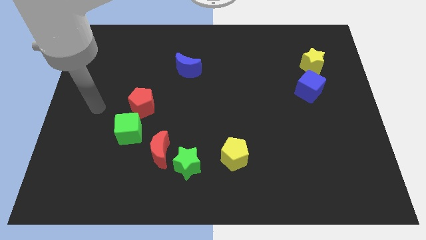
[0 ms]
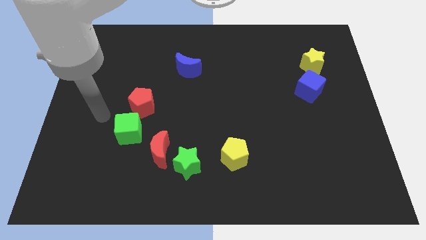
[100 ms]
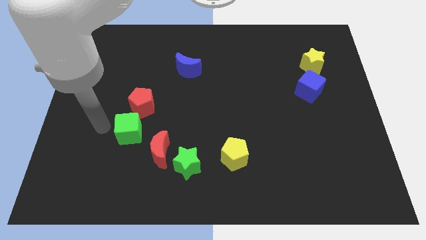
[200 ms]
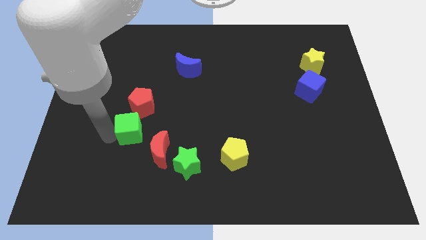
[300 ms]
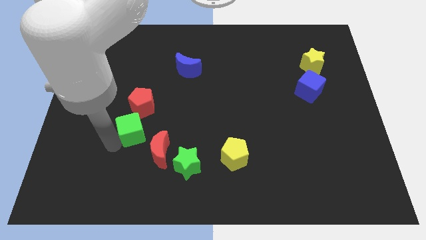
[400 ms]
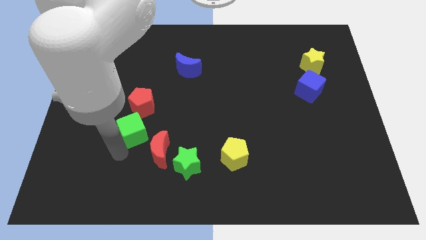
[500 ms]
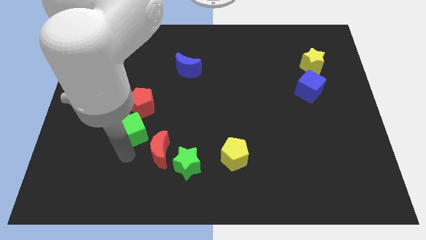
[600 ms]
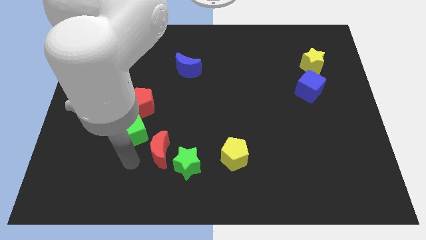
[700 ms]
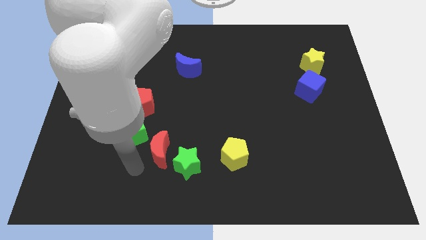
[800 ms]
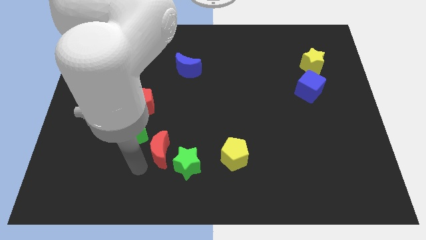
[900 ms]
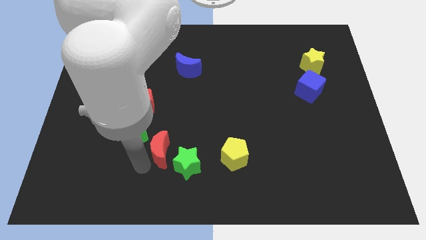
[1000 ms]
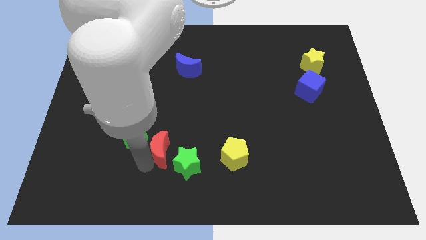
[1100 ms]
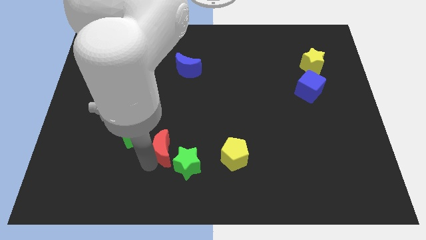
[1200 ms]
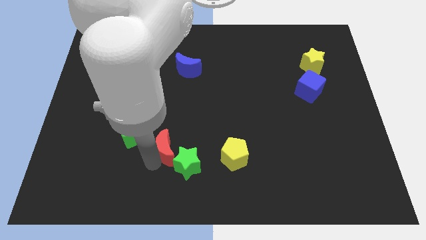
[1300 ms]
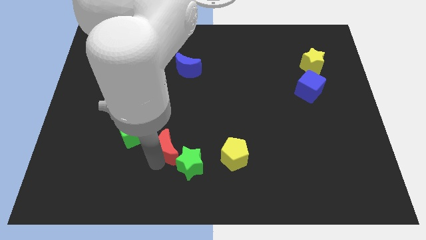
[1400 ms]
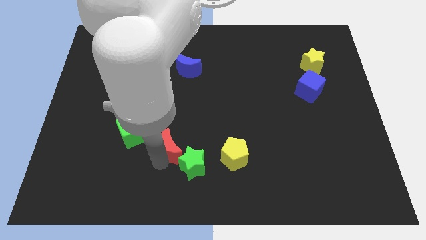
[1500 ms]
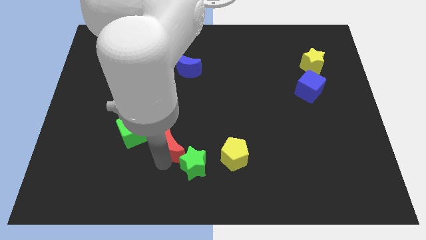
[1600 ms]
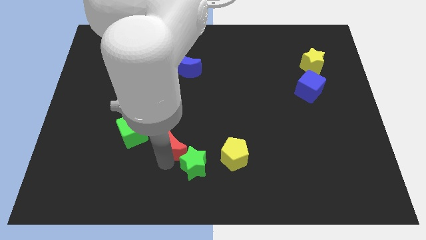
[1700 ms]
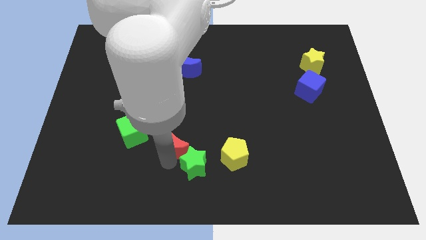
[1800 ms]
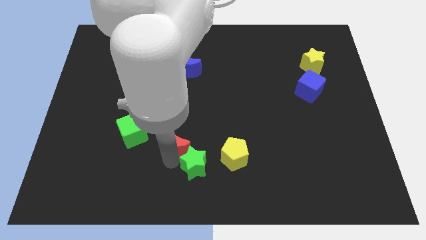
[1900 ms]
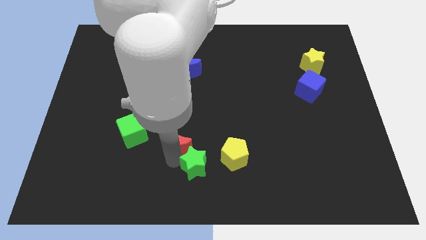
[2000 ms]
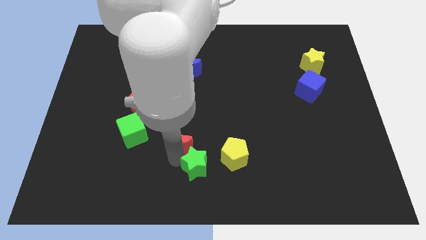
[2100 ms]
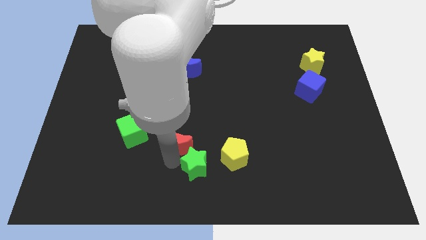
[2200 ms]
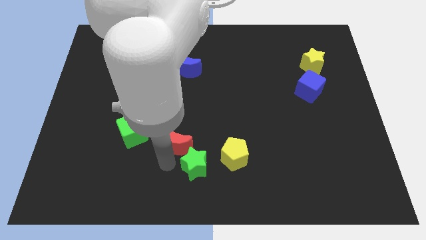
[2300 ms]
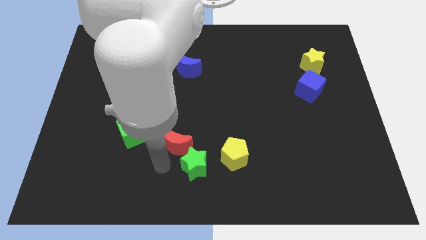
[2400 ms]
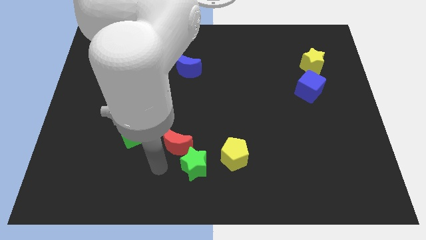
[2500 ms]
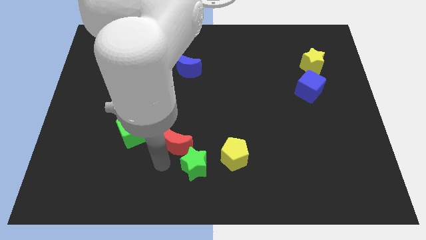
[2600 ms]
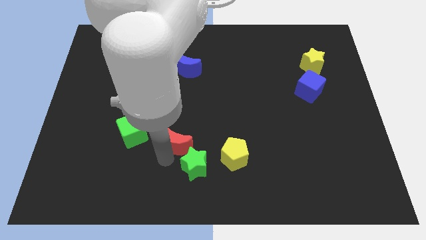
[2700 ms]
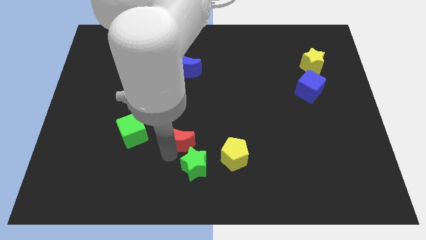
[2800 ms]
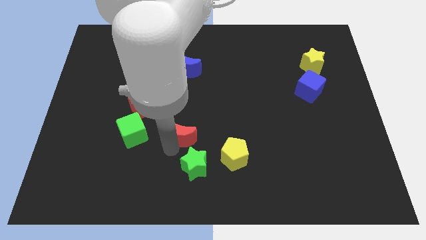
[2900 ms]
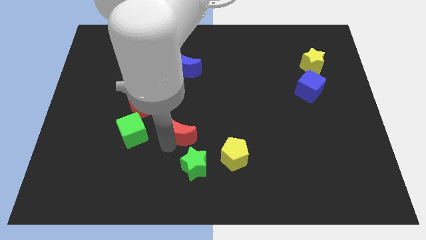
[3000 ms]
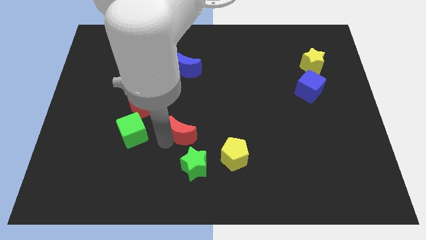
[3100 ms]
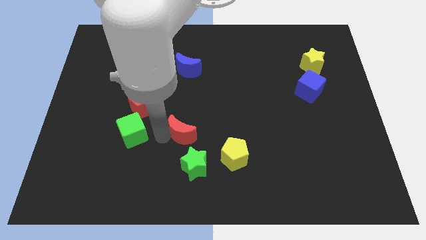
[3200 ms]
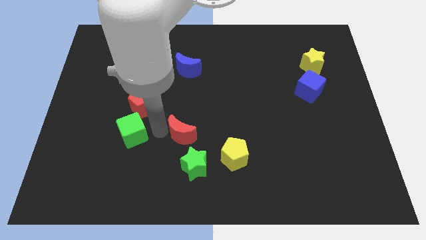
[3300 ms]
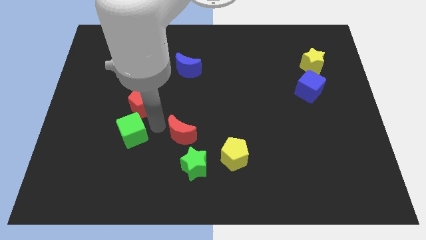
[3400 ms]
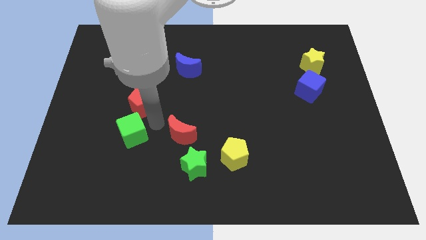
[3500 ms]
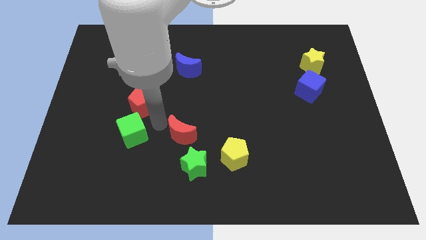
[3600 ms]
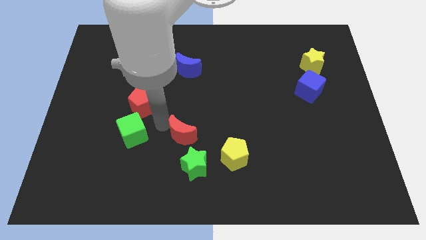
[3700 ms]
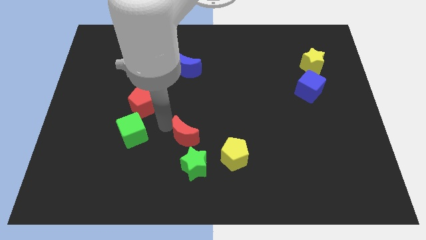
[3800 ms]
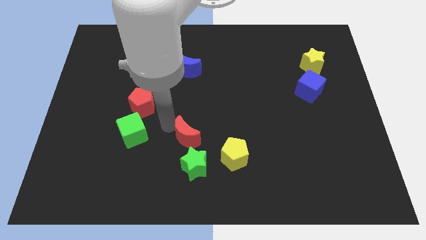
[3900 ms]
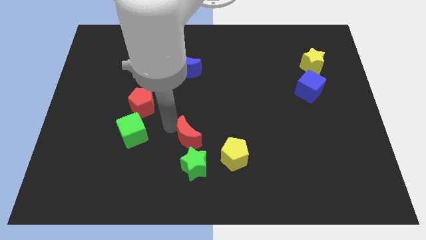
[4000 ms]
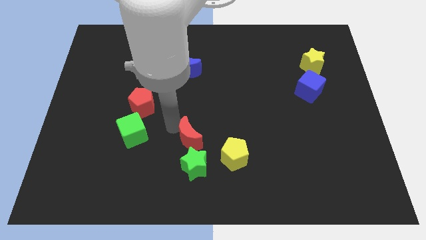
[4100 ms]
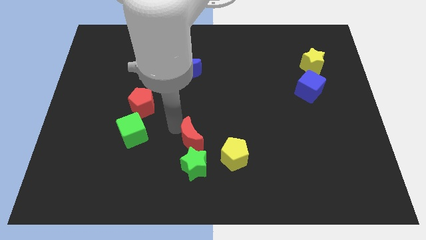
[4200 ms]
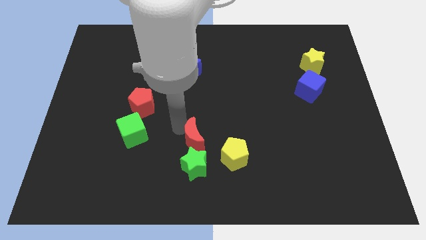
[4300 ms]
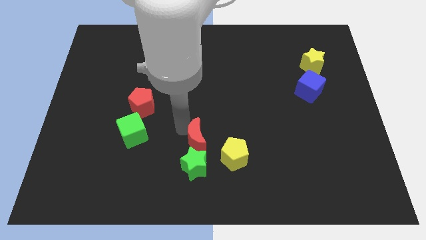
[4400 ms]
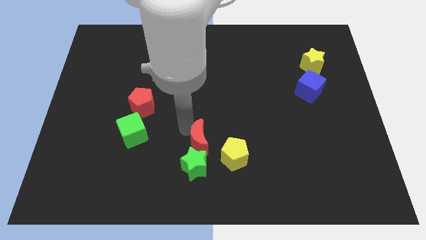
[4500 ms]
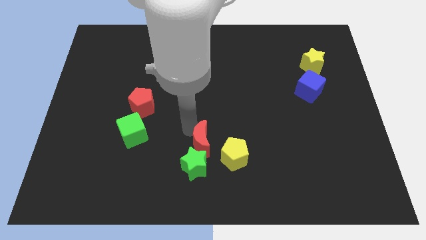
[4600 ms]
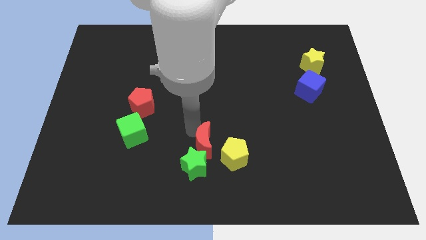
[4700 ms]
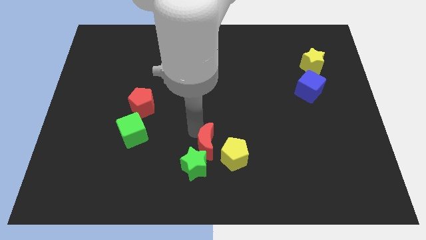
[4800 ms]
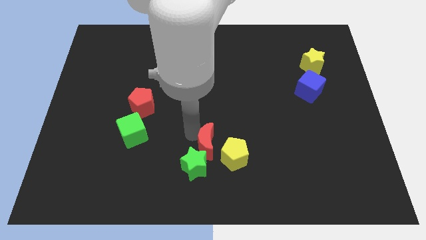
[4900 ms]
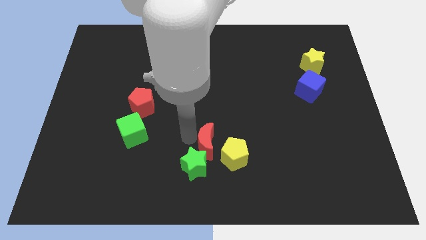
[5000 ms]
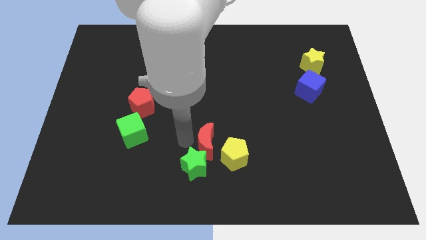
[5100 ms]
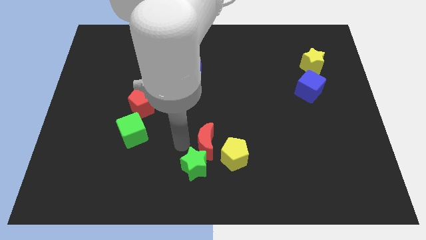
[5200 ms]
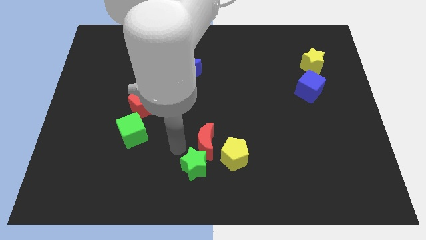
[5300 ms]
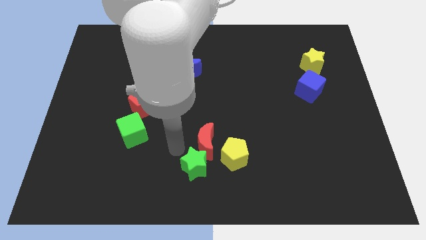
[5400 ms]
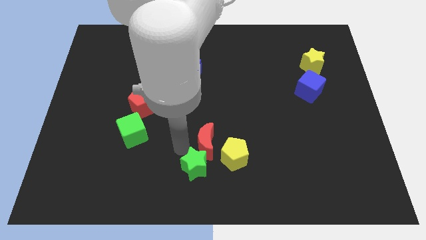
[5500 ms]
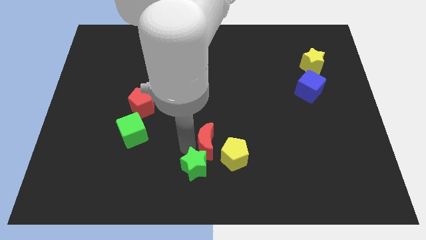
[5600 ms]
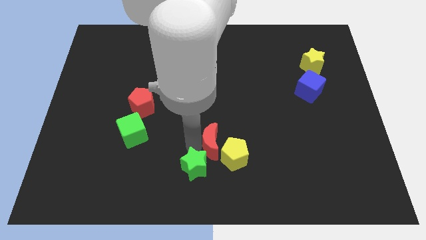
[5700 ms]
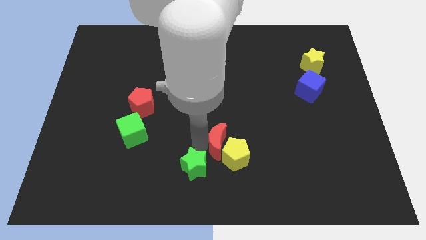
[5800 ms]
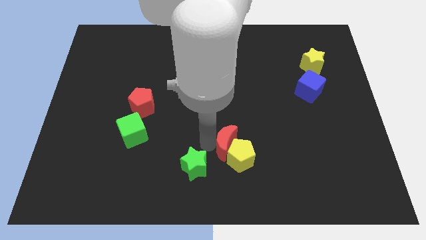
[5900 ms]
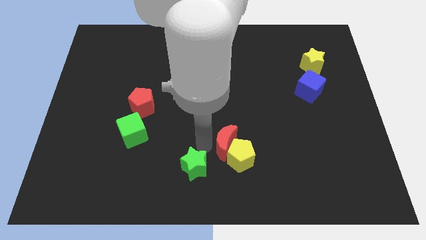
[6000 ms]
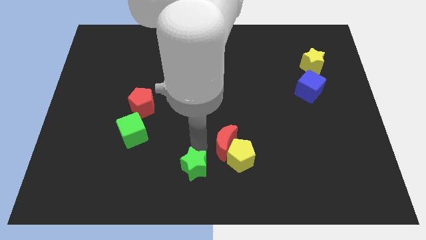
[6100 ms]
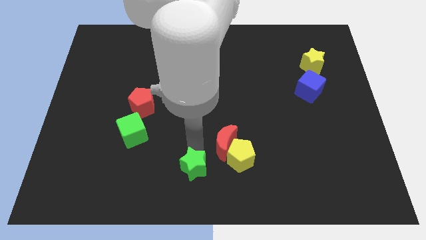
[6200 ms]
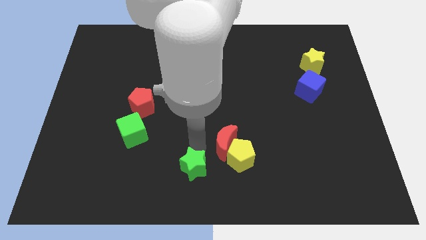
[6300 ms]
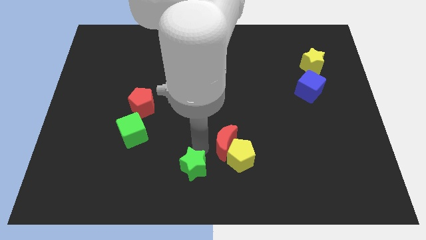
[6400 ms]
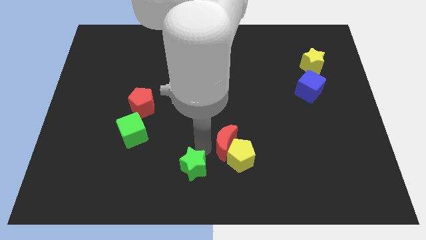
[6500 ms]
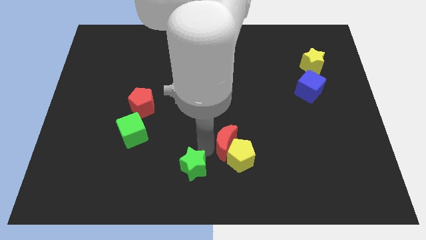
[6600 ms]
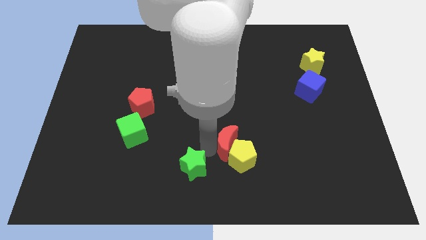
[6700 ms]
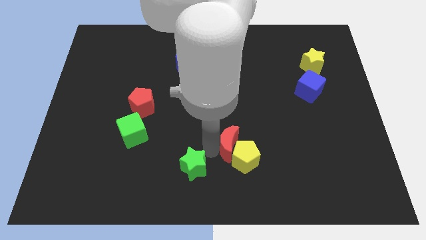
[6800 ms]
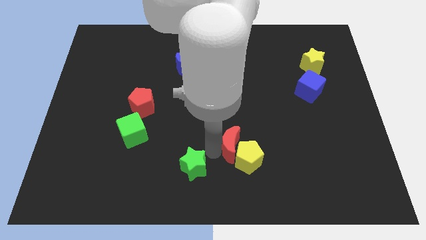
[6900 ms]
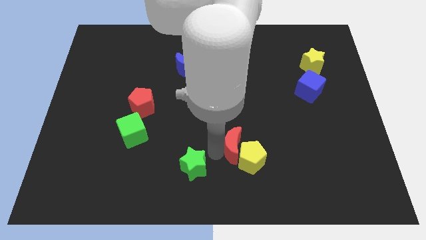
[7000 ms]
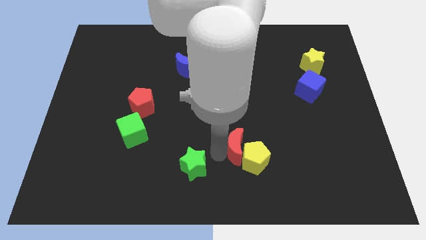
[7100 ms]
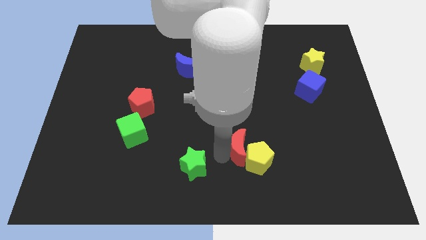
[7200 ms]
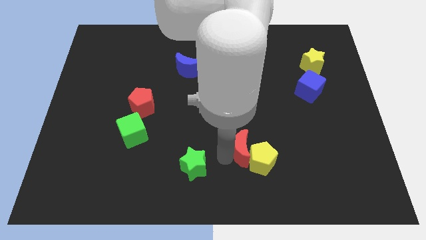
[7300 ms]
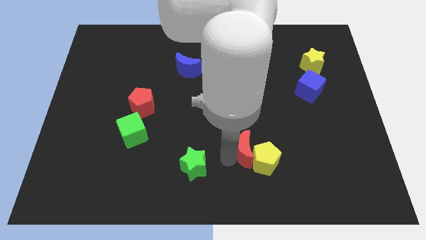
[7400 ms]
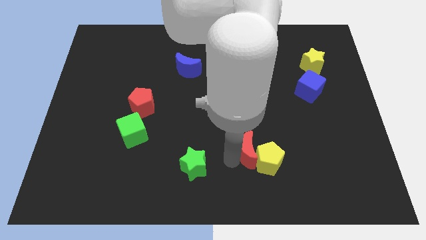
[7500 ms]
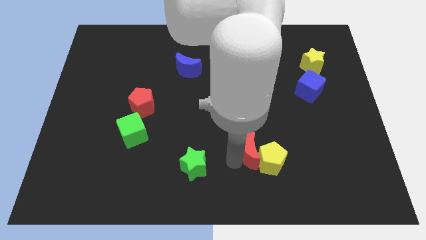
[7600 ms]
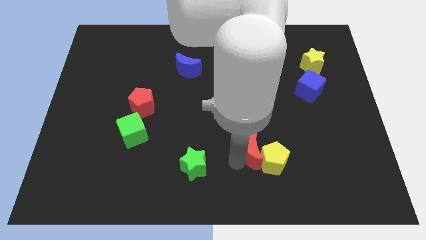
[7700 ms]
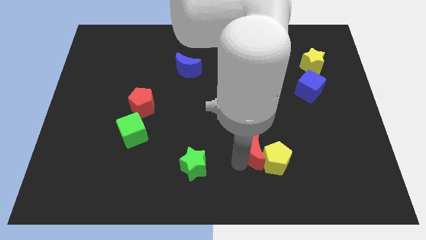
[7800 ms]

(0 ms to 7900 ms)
push the red moon to the right

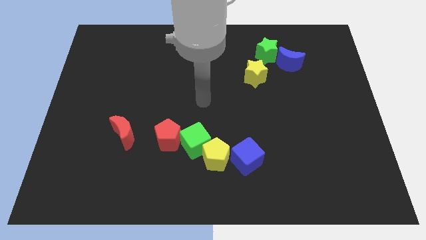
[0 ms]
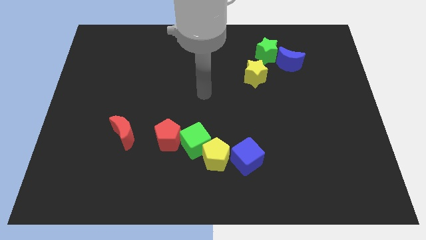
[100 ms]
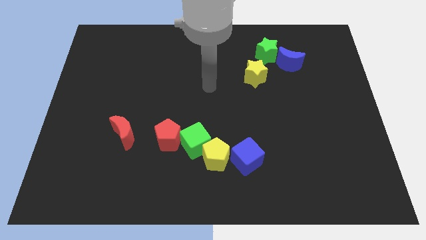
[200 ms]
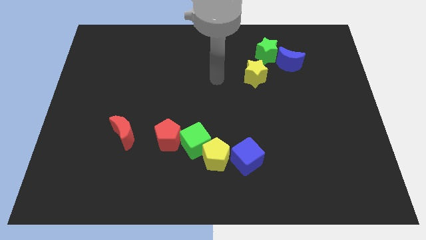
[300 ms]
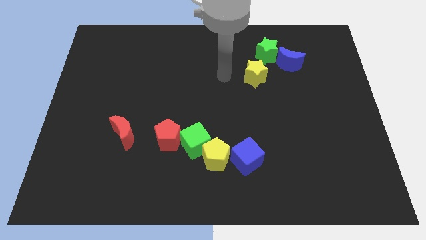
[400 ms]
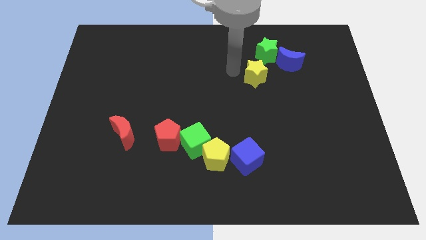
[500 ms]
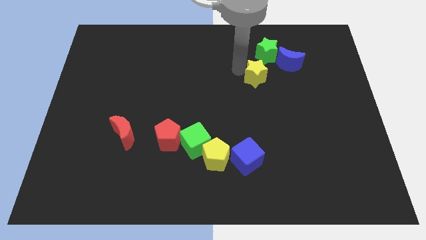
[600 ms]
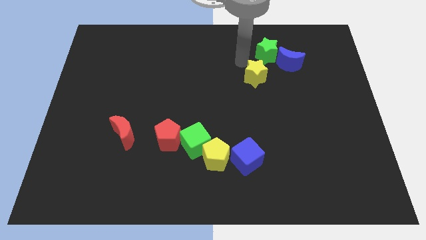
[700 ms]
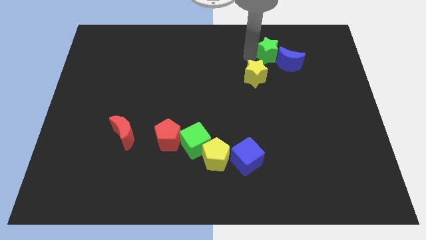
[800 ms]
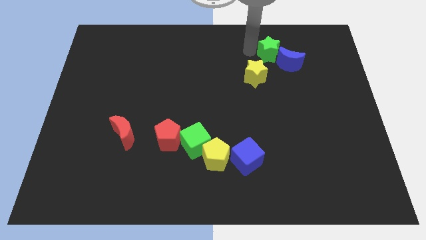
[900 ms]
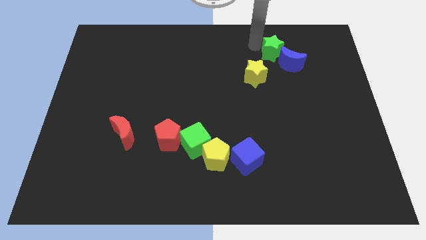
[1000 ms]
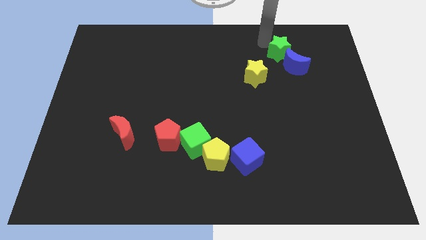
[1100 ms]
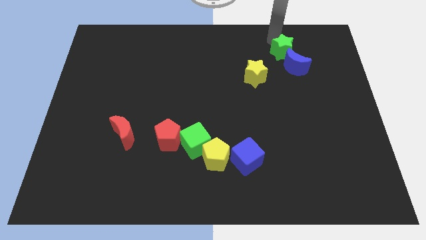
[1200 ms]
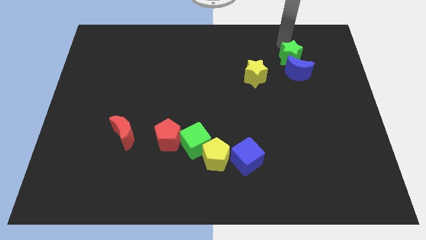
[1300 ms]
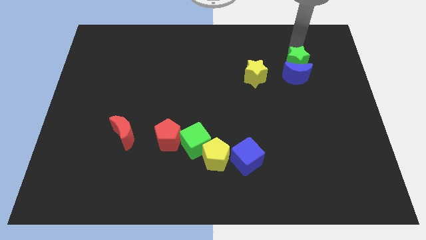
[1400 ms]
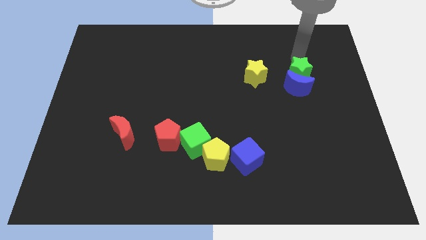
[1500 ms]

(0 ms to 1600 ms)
slightly push the blue moon down
